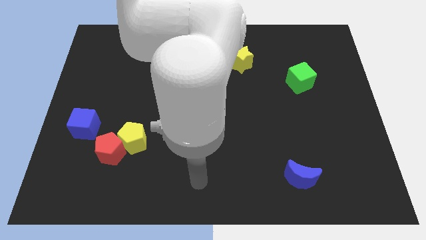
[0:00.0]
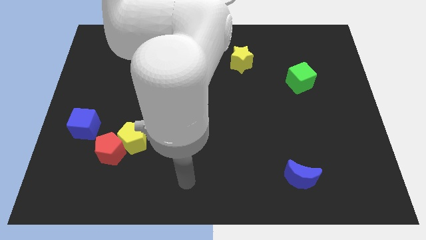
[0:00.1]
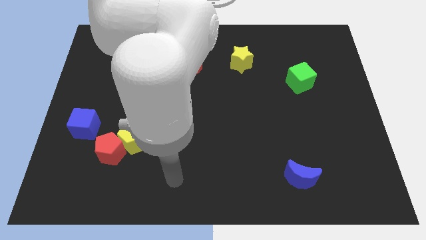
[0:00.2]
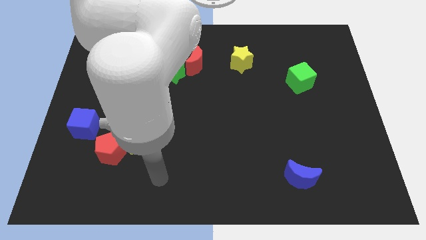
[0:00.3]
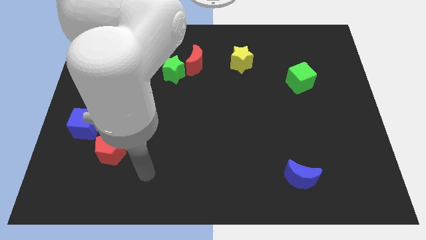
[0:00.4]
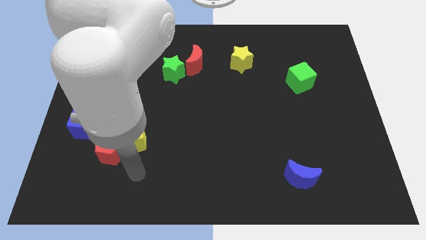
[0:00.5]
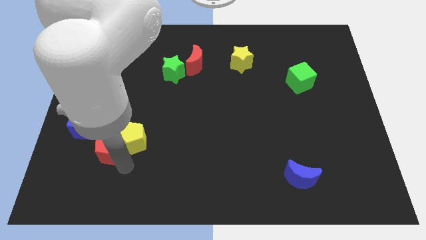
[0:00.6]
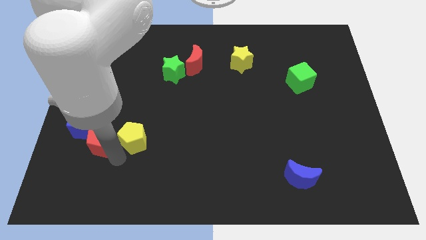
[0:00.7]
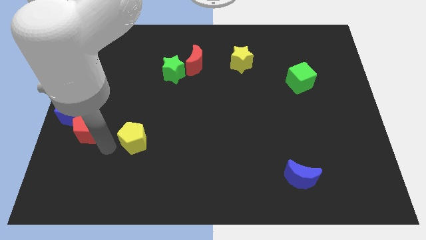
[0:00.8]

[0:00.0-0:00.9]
move the yellow pentagon away from the red pentagon

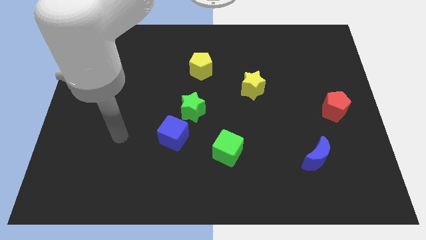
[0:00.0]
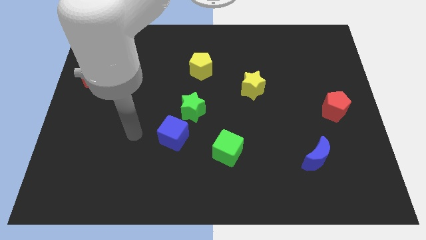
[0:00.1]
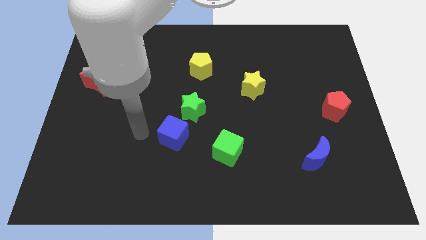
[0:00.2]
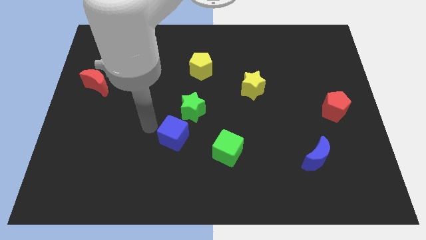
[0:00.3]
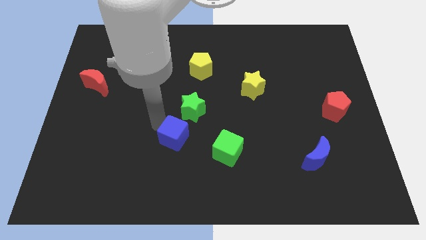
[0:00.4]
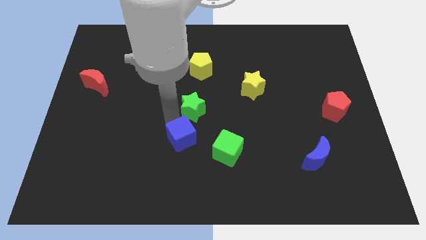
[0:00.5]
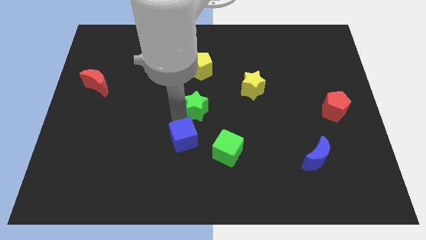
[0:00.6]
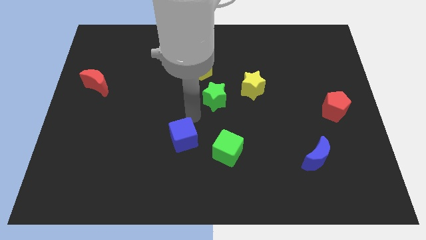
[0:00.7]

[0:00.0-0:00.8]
move the blue cube away from the green star

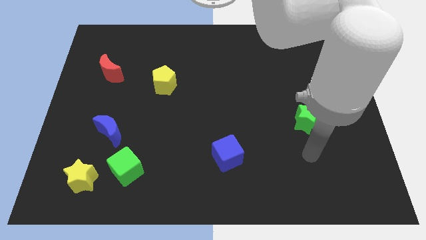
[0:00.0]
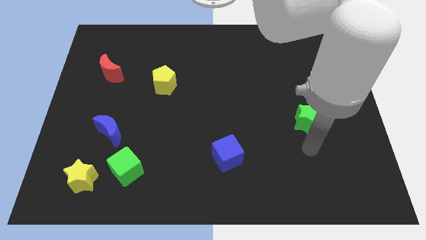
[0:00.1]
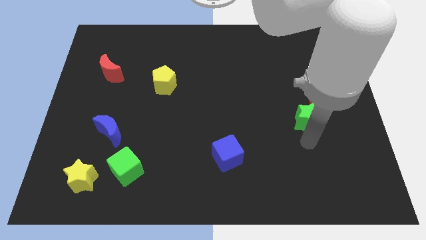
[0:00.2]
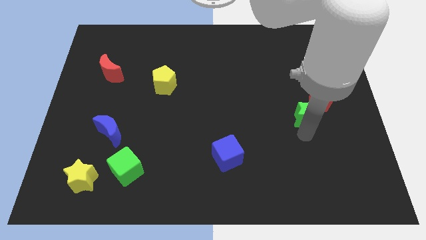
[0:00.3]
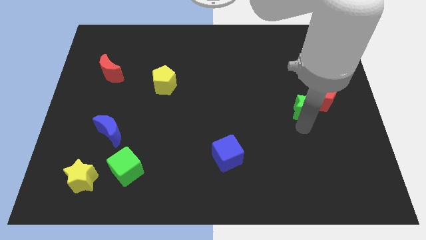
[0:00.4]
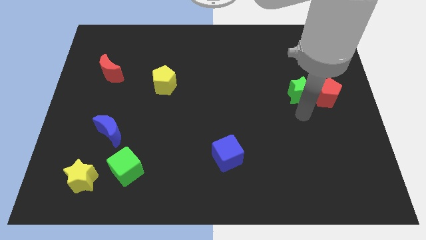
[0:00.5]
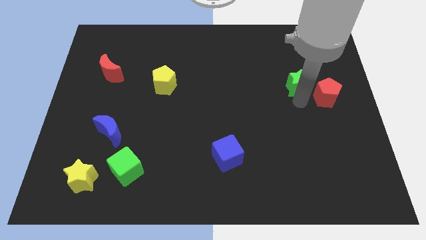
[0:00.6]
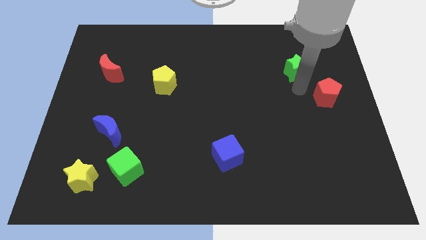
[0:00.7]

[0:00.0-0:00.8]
pull the red pentagon apart from the green star

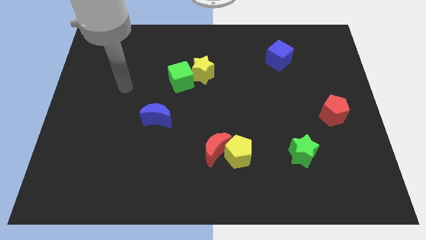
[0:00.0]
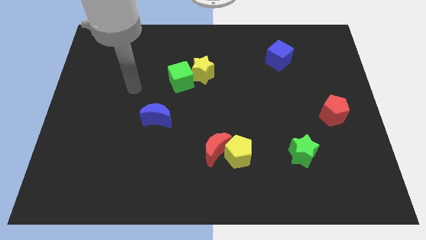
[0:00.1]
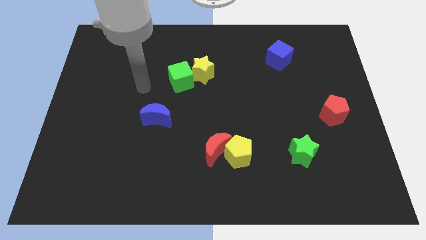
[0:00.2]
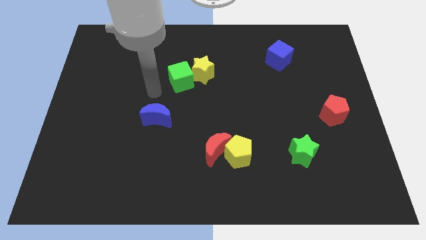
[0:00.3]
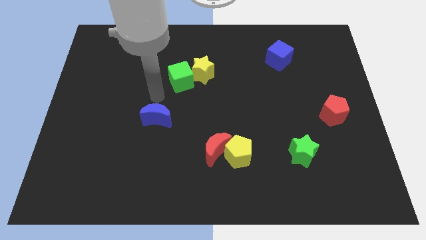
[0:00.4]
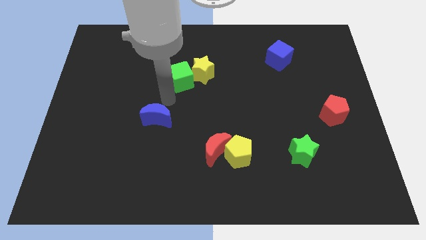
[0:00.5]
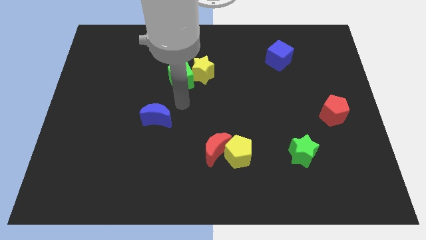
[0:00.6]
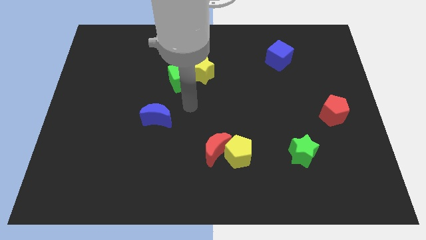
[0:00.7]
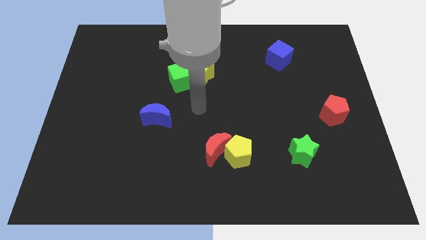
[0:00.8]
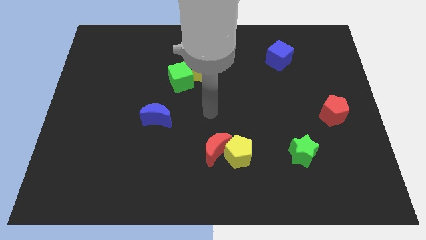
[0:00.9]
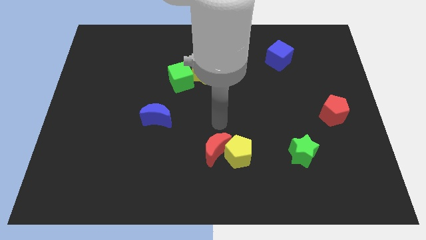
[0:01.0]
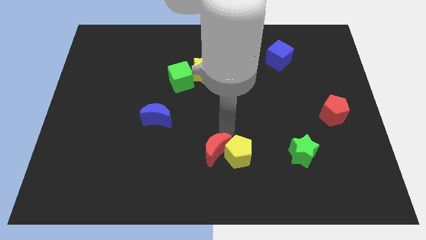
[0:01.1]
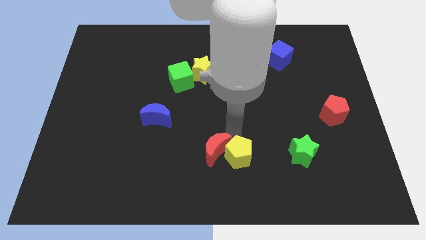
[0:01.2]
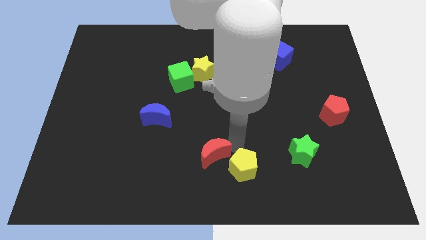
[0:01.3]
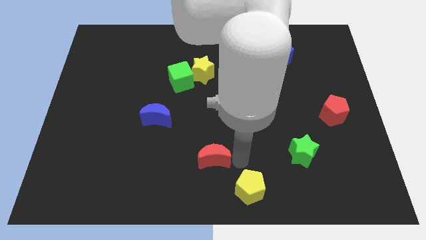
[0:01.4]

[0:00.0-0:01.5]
move the red moon away from the yellow pentagon

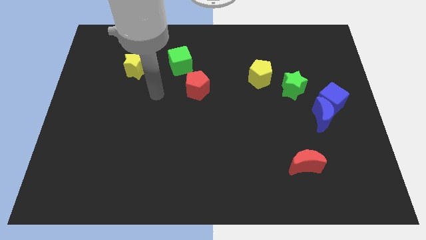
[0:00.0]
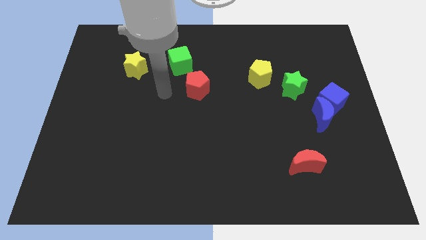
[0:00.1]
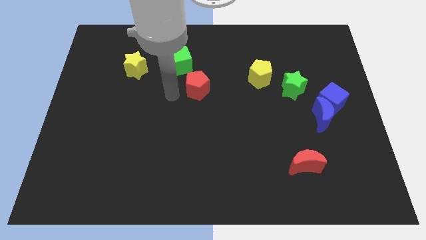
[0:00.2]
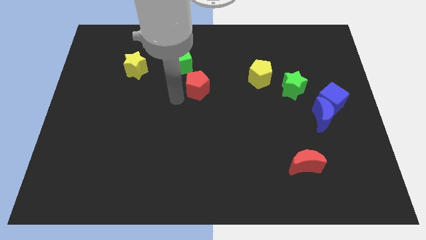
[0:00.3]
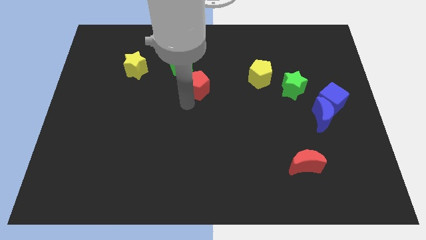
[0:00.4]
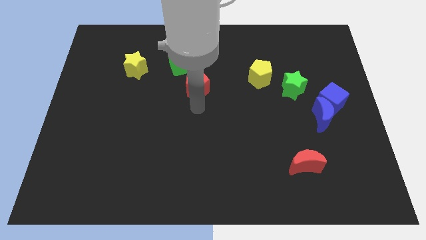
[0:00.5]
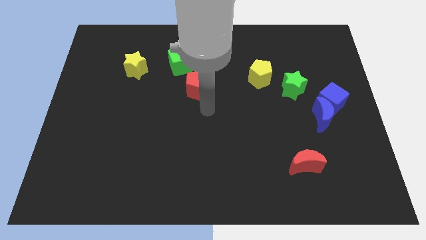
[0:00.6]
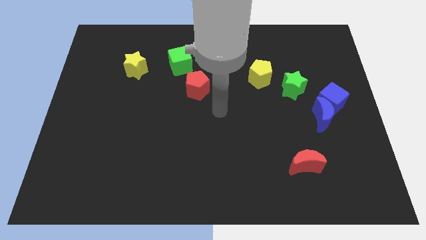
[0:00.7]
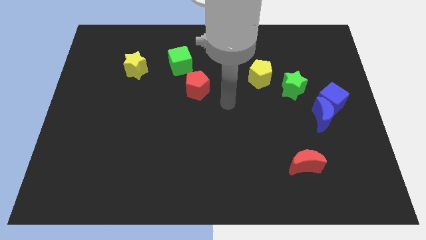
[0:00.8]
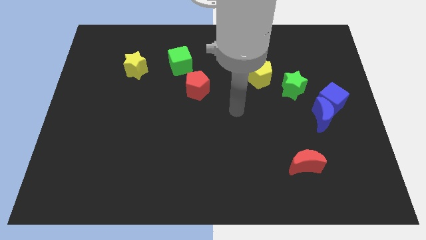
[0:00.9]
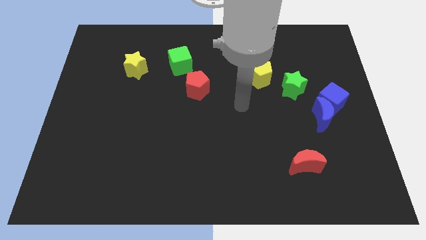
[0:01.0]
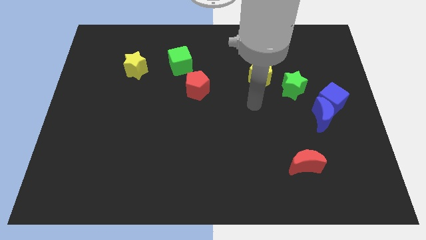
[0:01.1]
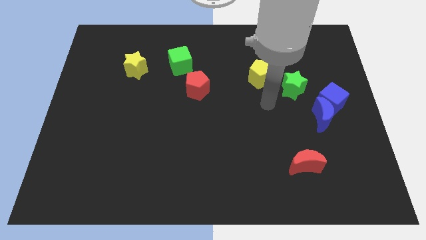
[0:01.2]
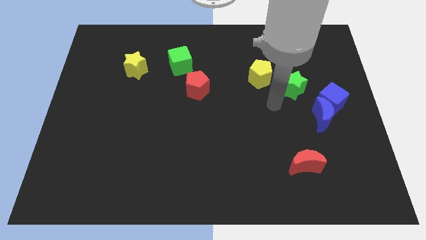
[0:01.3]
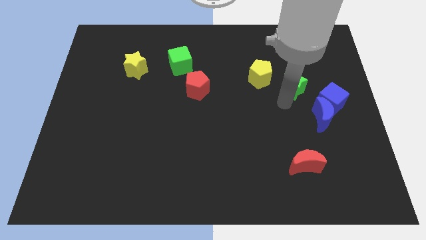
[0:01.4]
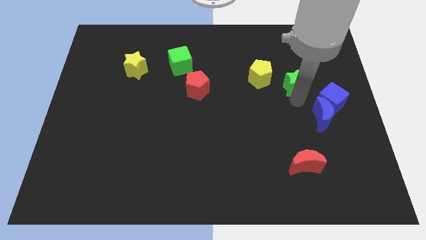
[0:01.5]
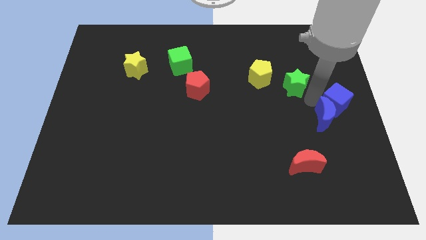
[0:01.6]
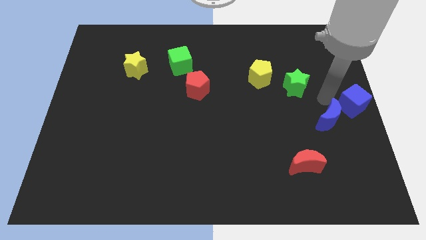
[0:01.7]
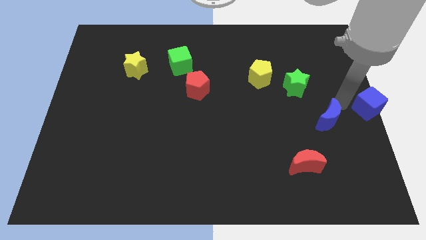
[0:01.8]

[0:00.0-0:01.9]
move the blue moon away from the blue cube

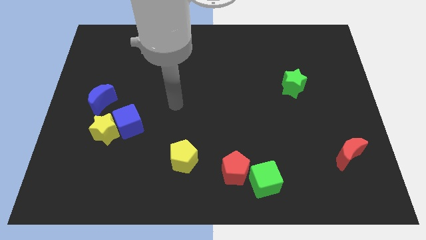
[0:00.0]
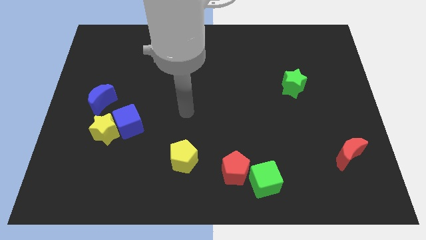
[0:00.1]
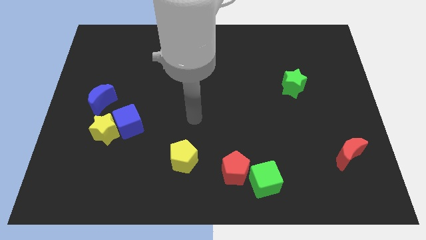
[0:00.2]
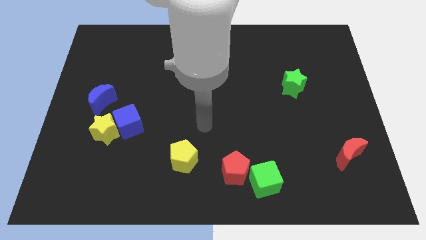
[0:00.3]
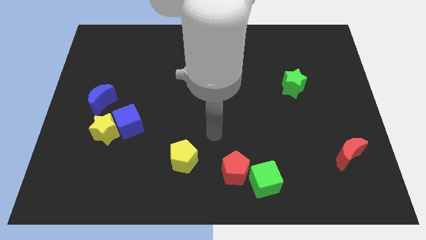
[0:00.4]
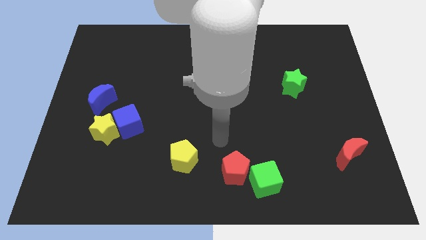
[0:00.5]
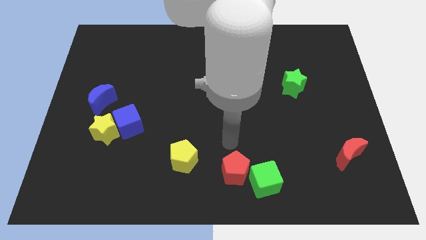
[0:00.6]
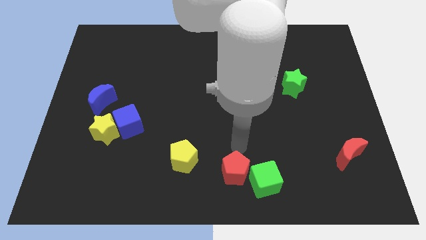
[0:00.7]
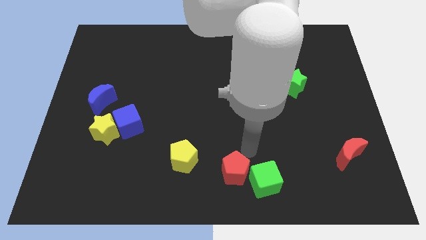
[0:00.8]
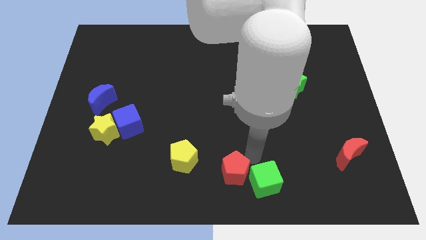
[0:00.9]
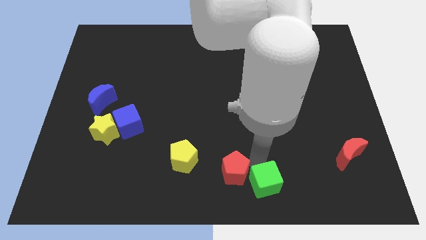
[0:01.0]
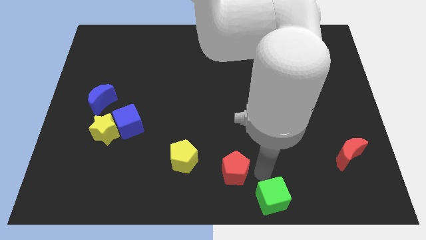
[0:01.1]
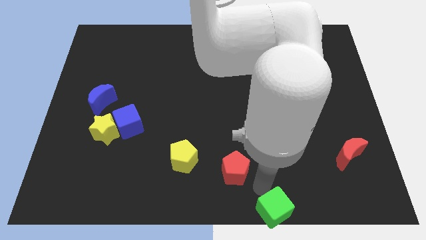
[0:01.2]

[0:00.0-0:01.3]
move the red pentagon away from the green cube

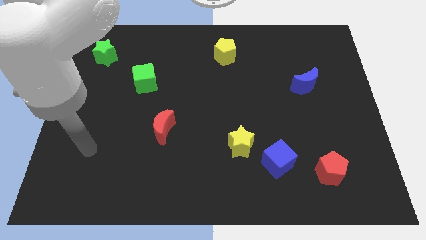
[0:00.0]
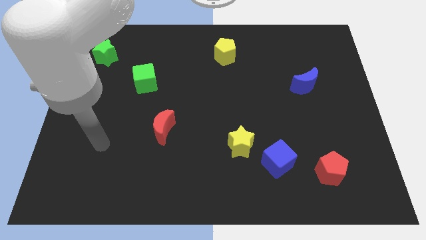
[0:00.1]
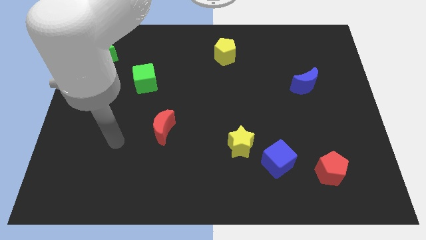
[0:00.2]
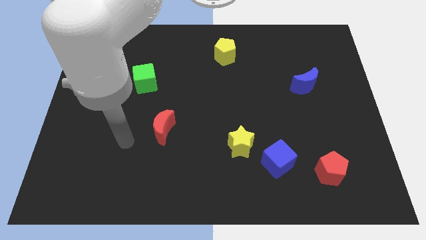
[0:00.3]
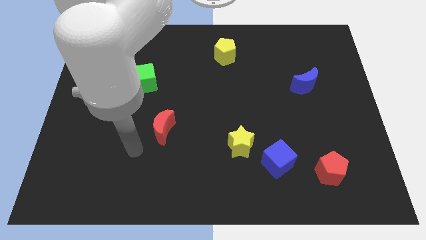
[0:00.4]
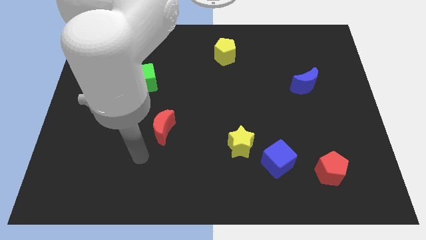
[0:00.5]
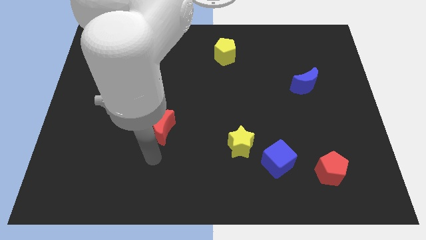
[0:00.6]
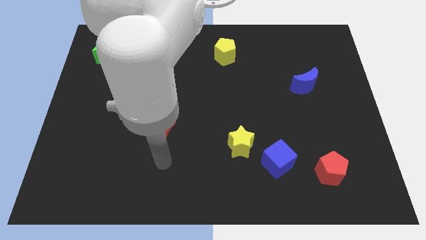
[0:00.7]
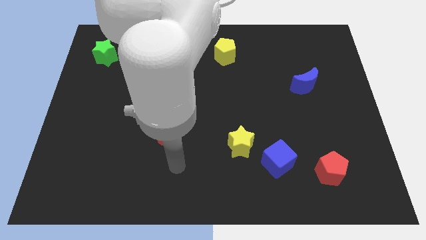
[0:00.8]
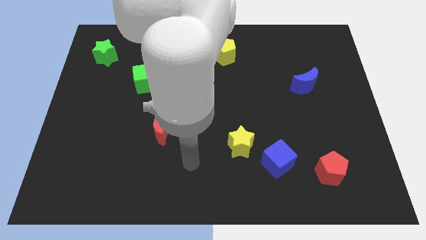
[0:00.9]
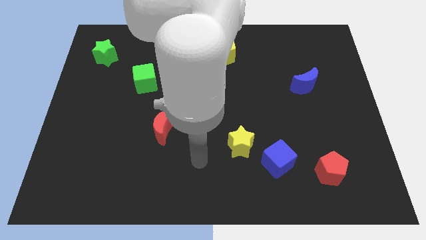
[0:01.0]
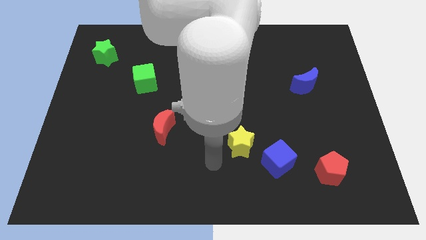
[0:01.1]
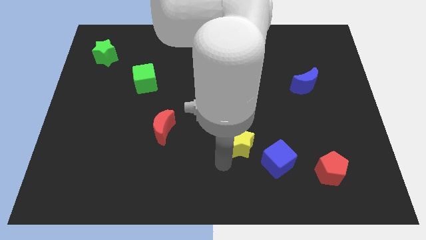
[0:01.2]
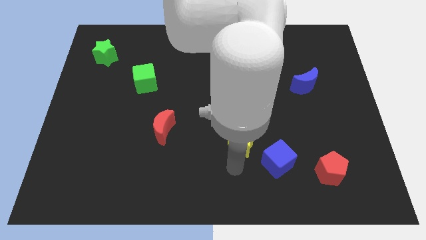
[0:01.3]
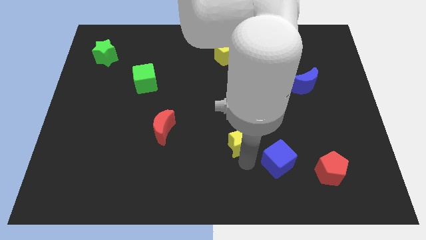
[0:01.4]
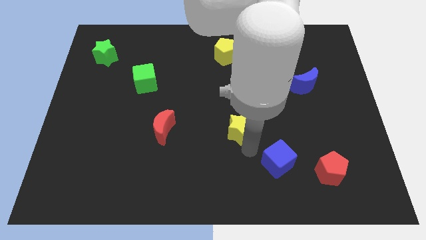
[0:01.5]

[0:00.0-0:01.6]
pull the blue cube apart from the yellow star

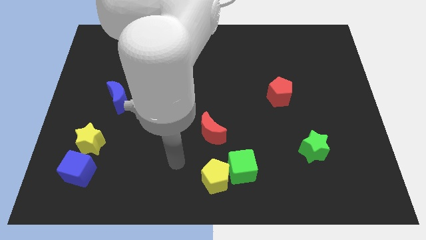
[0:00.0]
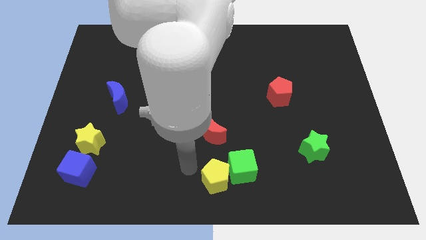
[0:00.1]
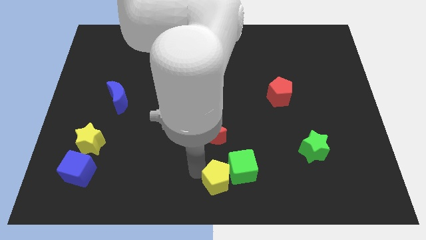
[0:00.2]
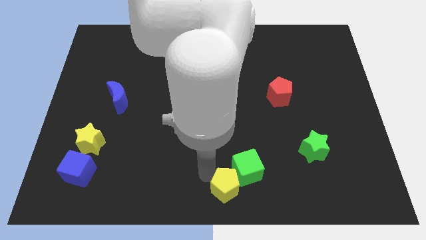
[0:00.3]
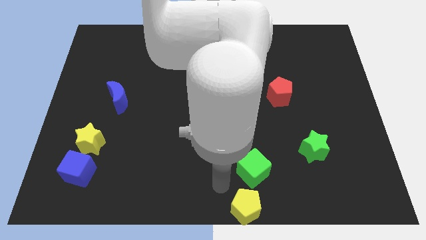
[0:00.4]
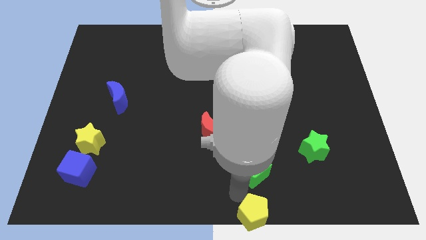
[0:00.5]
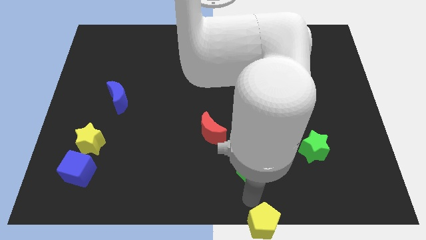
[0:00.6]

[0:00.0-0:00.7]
move the green cube away from the yellow pentagon

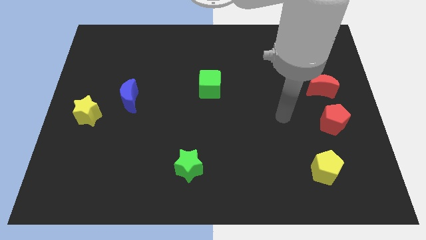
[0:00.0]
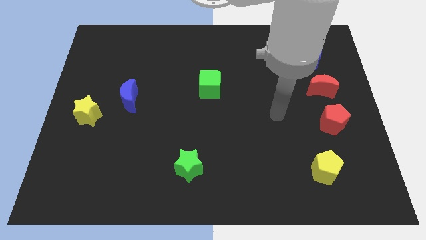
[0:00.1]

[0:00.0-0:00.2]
pull the blue moon apart from the yellow star
